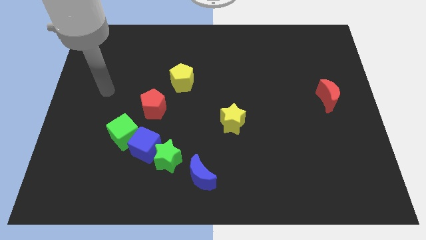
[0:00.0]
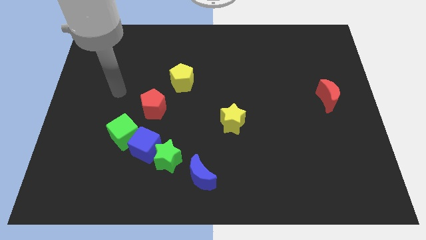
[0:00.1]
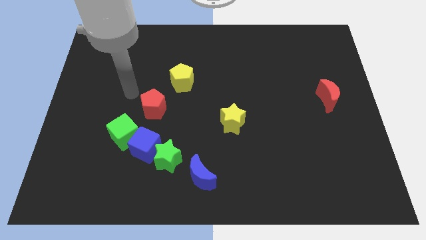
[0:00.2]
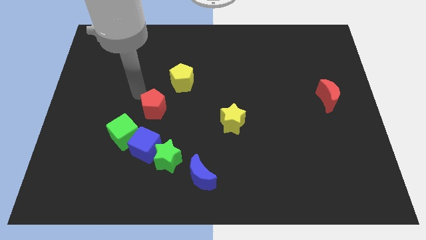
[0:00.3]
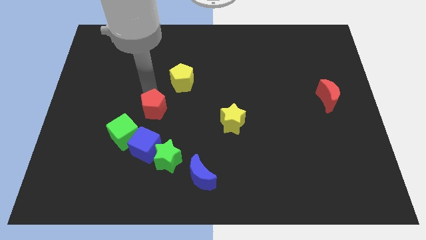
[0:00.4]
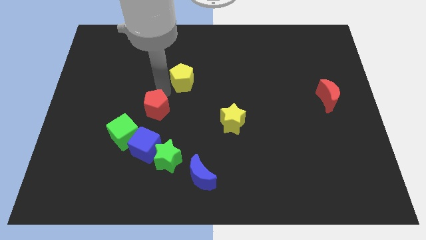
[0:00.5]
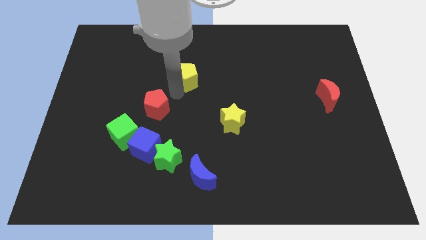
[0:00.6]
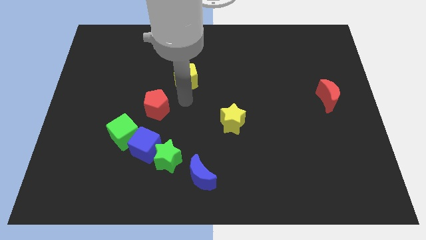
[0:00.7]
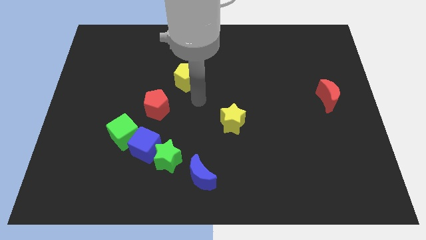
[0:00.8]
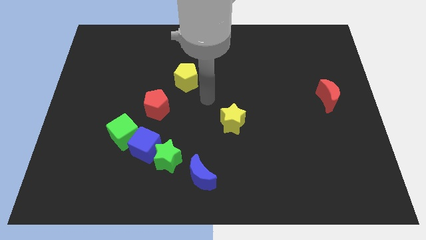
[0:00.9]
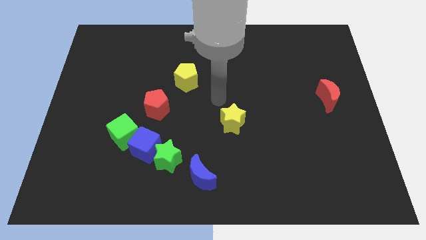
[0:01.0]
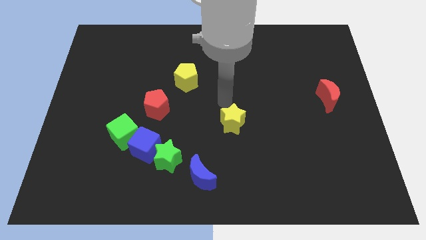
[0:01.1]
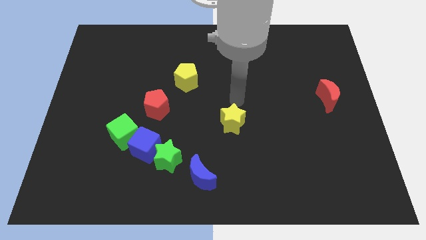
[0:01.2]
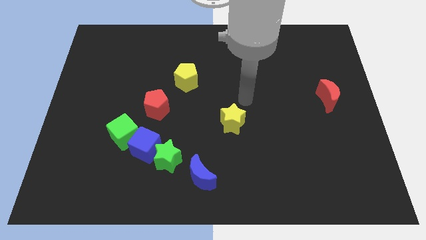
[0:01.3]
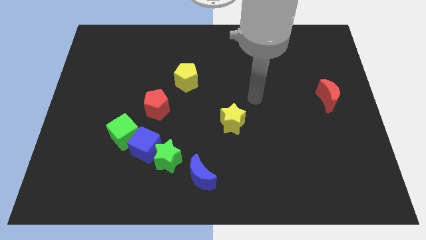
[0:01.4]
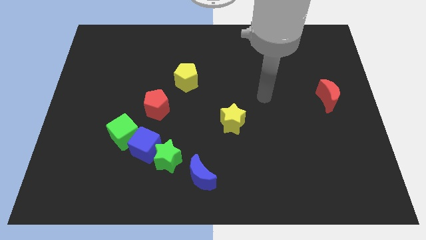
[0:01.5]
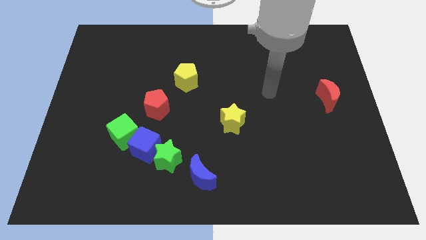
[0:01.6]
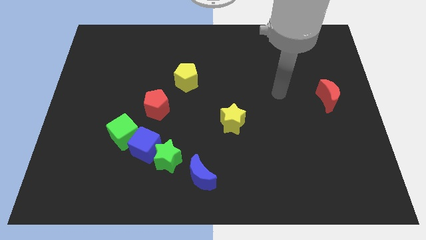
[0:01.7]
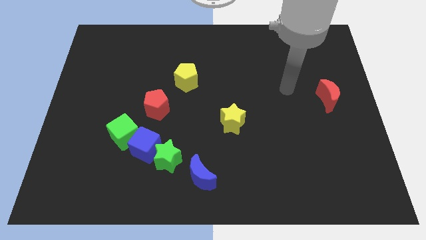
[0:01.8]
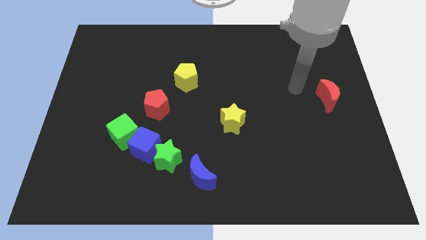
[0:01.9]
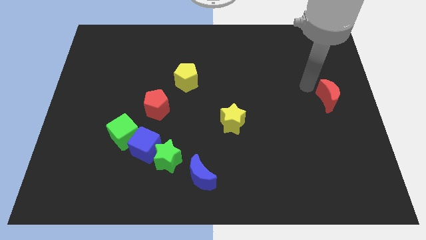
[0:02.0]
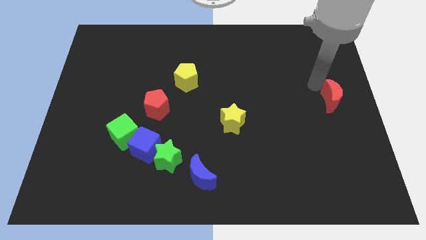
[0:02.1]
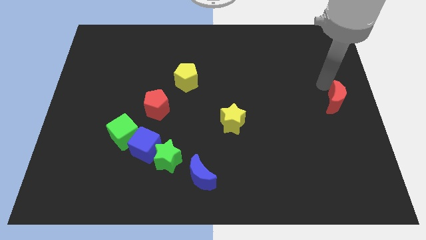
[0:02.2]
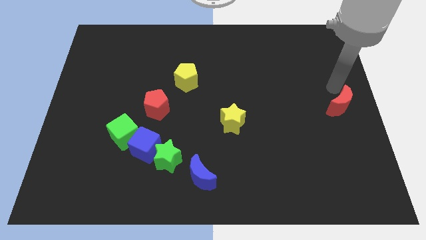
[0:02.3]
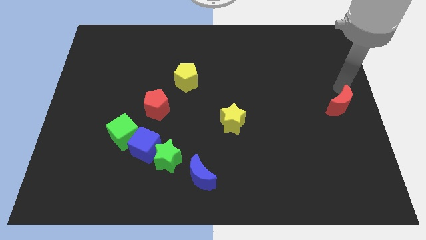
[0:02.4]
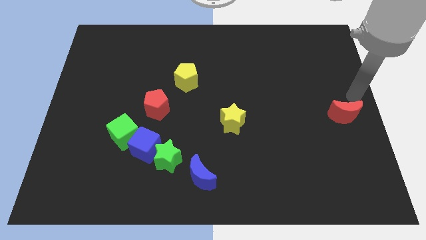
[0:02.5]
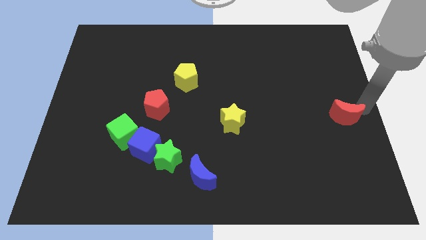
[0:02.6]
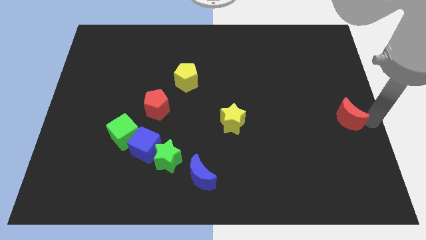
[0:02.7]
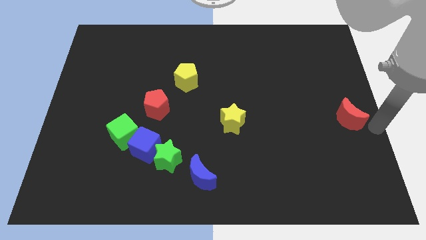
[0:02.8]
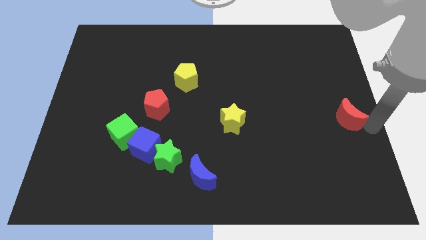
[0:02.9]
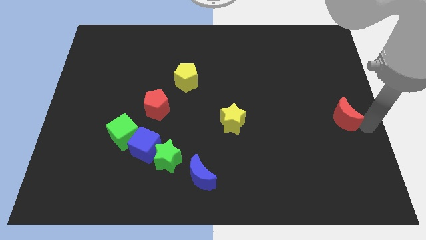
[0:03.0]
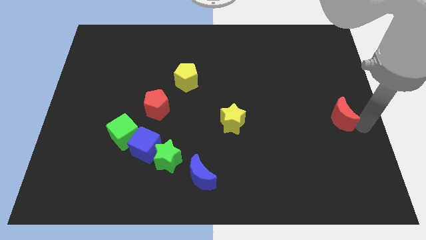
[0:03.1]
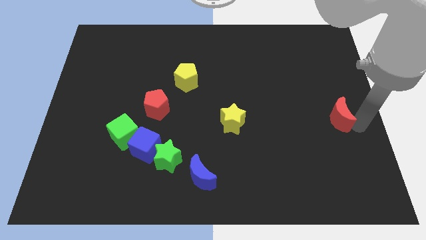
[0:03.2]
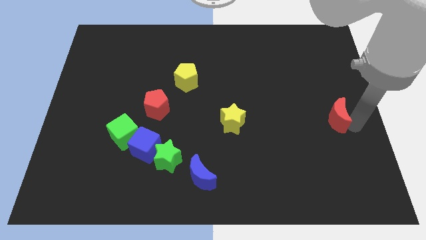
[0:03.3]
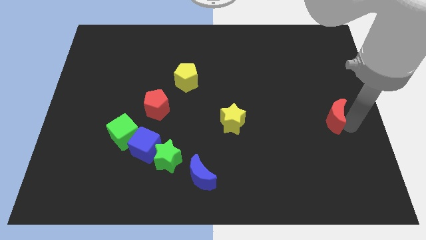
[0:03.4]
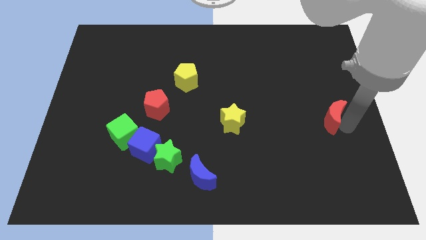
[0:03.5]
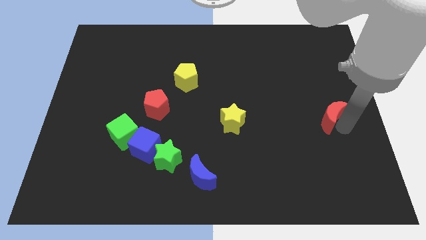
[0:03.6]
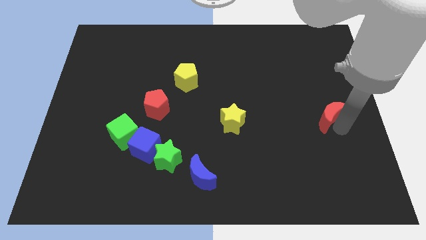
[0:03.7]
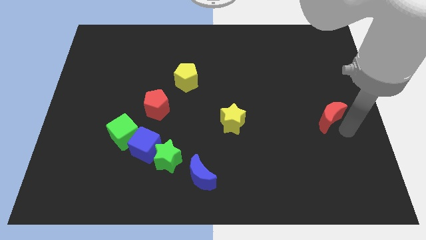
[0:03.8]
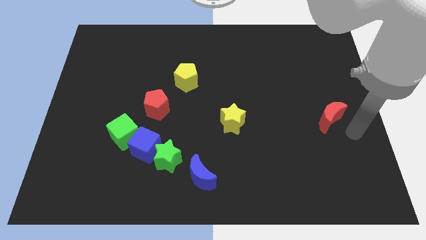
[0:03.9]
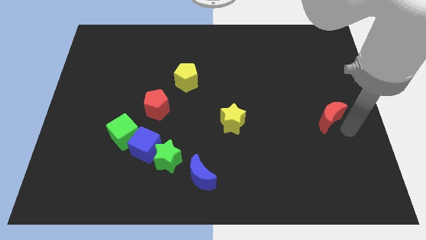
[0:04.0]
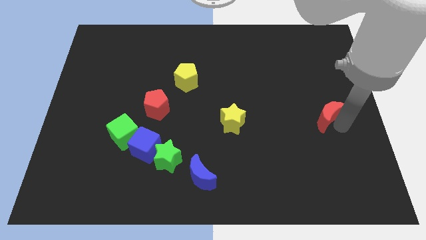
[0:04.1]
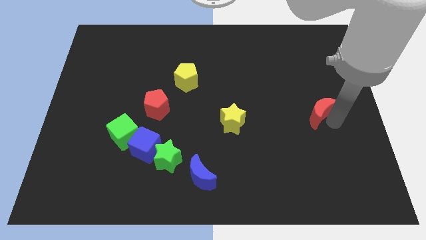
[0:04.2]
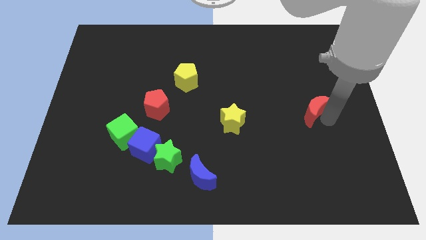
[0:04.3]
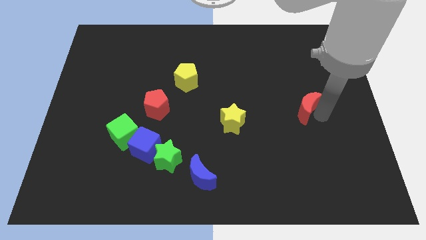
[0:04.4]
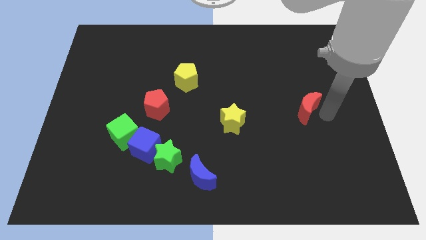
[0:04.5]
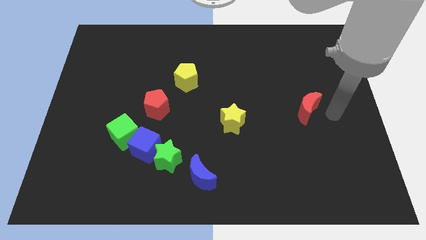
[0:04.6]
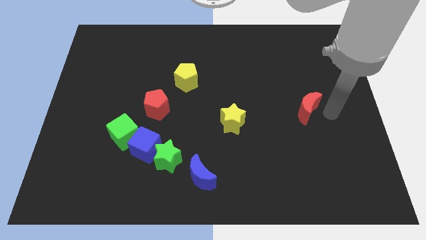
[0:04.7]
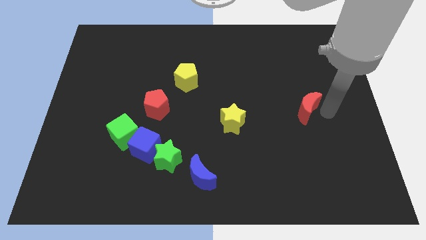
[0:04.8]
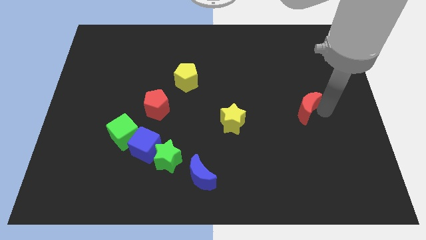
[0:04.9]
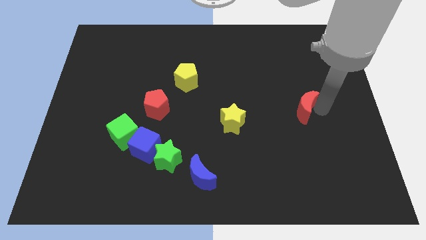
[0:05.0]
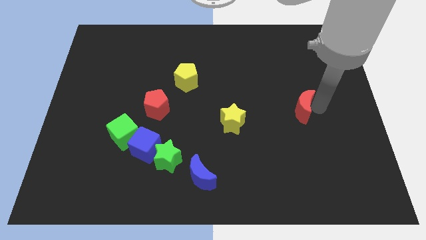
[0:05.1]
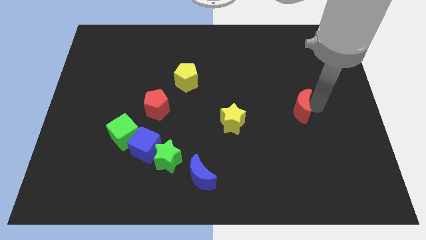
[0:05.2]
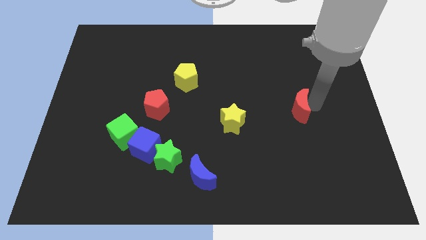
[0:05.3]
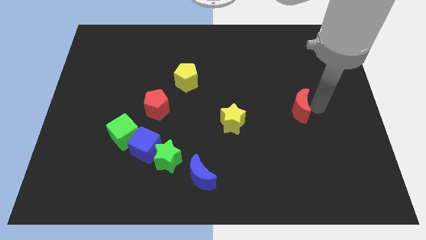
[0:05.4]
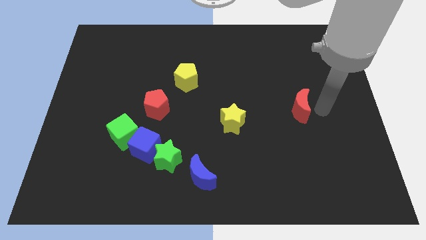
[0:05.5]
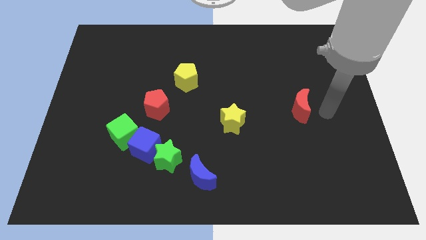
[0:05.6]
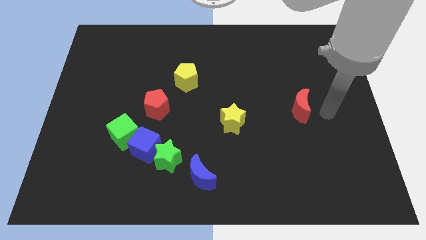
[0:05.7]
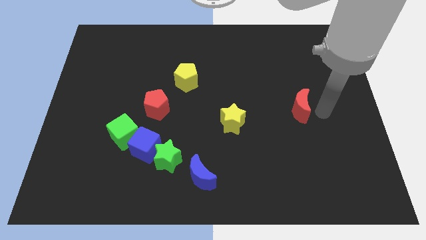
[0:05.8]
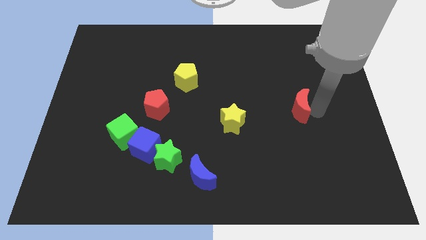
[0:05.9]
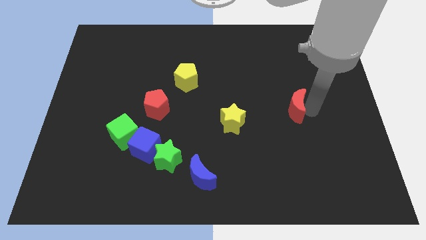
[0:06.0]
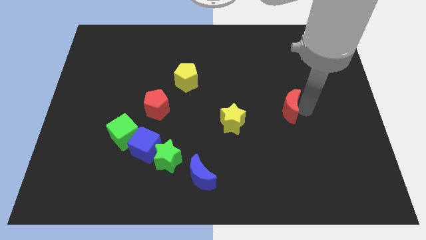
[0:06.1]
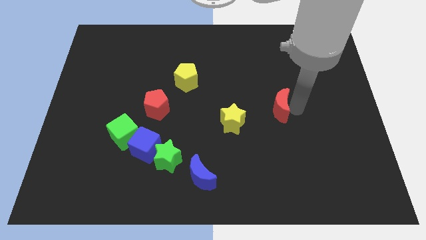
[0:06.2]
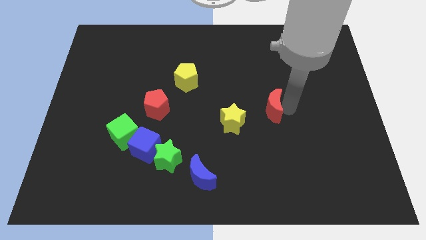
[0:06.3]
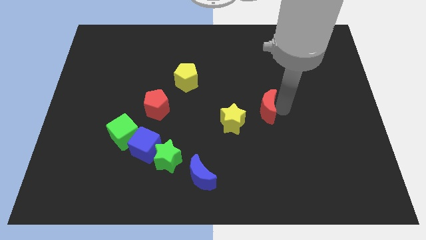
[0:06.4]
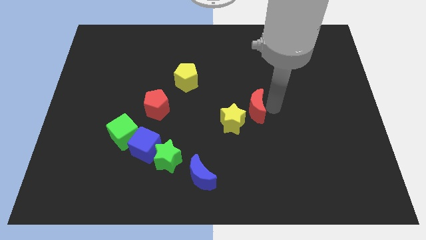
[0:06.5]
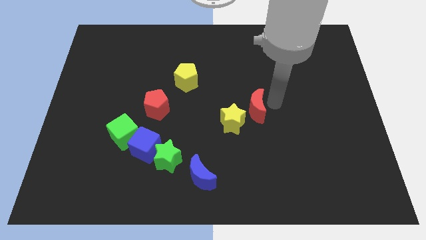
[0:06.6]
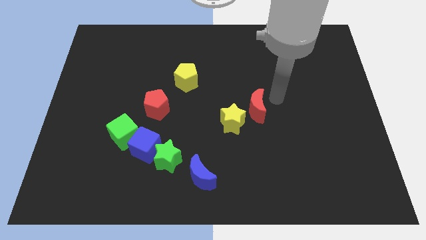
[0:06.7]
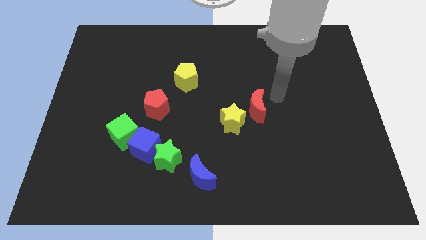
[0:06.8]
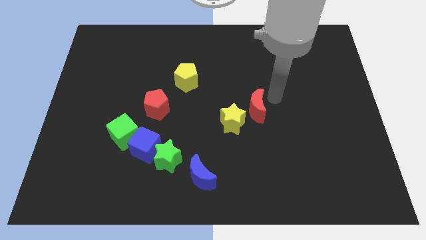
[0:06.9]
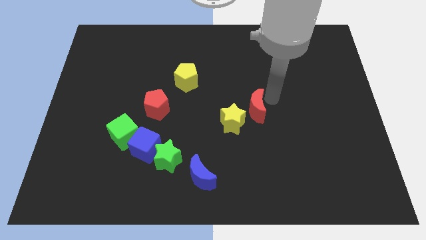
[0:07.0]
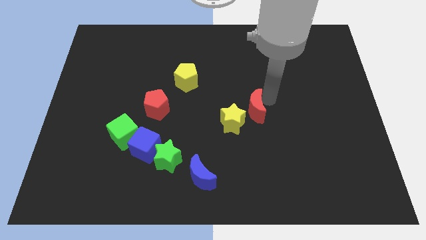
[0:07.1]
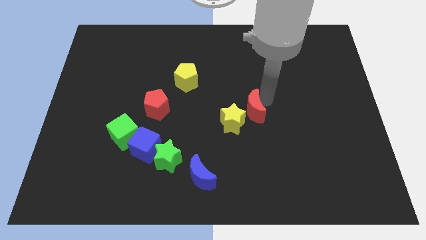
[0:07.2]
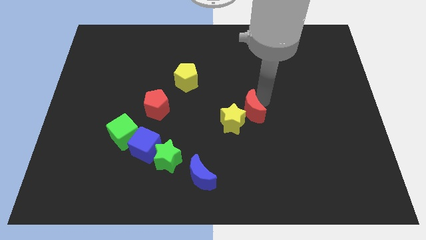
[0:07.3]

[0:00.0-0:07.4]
move the red moon close to the yellow star
